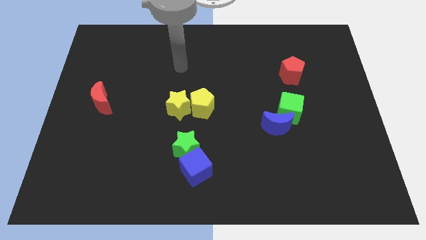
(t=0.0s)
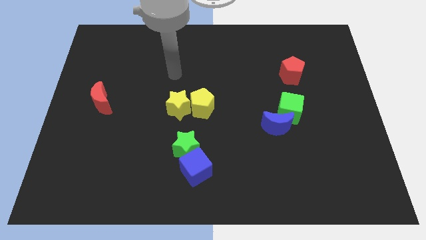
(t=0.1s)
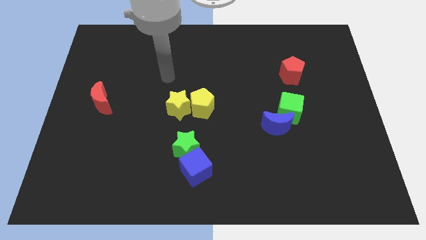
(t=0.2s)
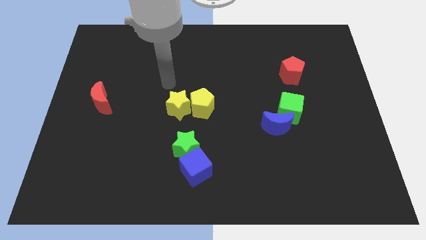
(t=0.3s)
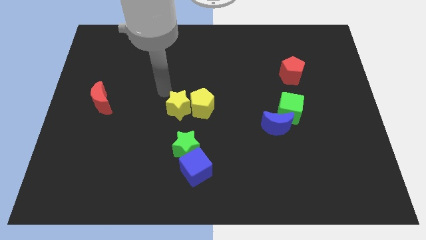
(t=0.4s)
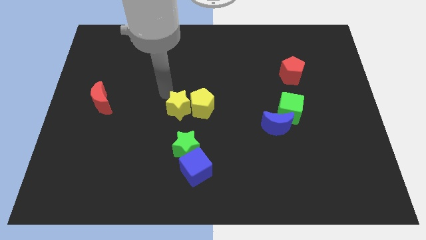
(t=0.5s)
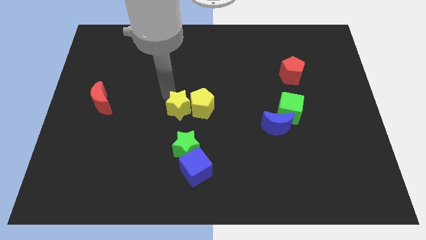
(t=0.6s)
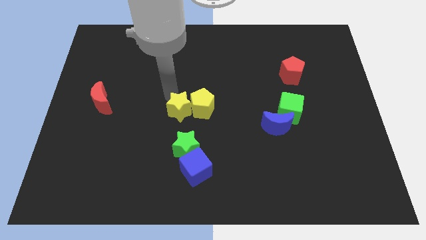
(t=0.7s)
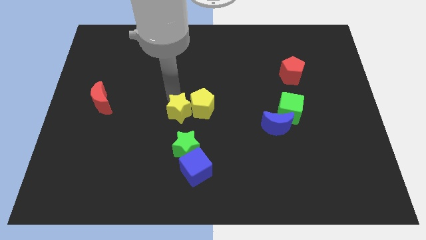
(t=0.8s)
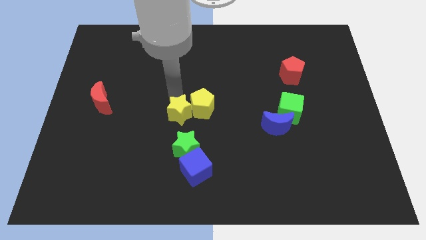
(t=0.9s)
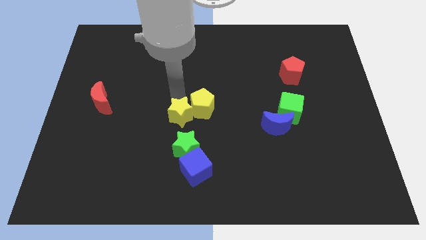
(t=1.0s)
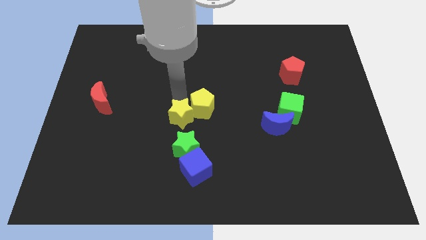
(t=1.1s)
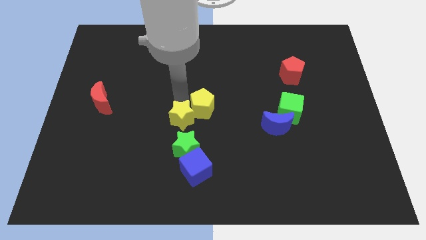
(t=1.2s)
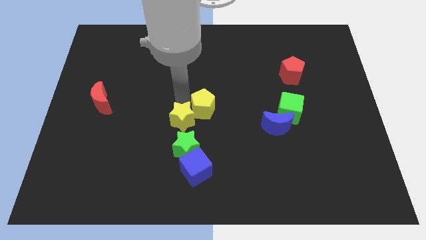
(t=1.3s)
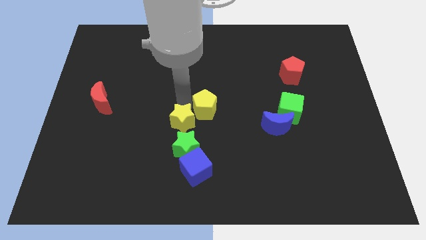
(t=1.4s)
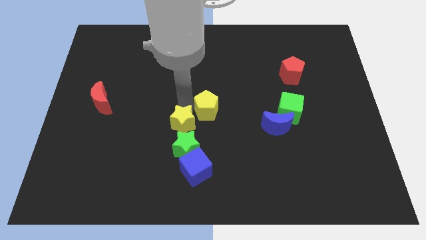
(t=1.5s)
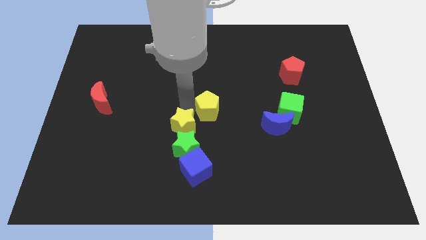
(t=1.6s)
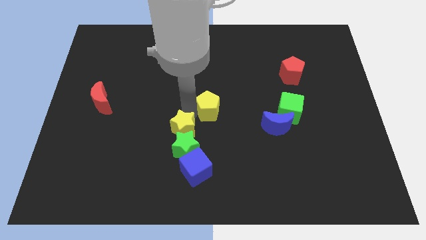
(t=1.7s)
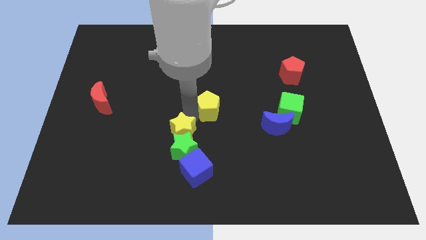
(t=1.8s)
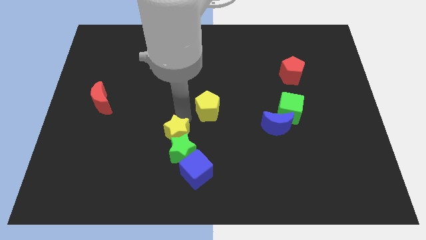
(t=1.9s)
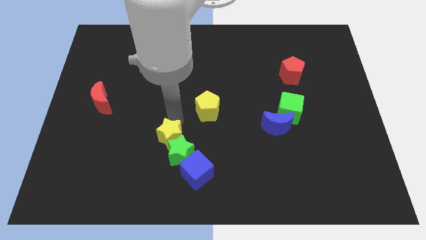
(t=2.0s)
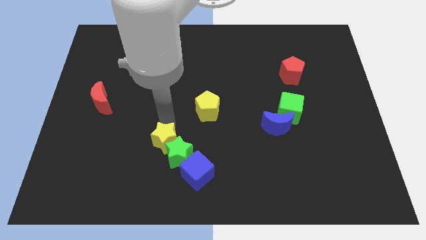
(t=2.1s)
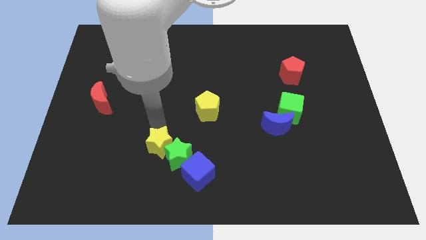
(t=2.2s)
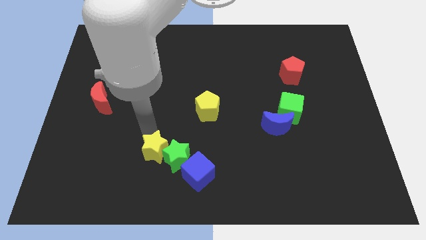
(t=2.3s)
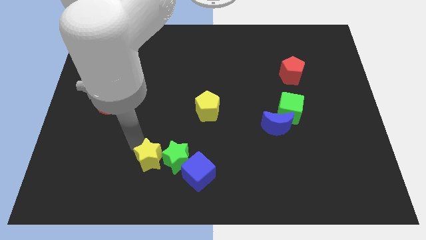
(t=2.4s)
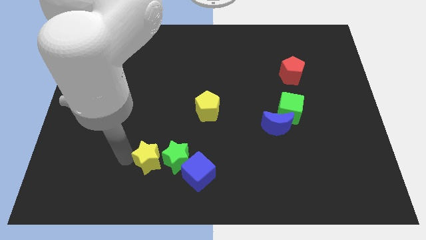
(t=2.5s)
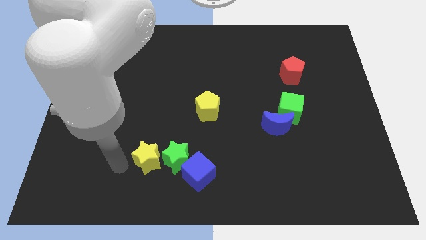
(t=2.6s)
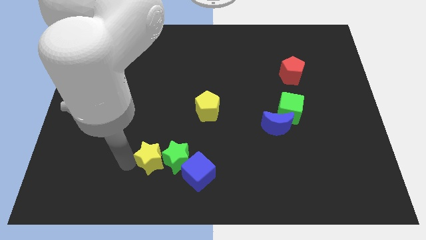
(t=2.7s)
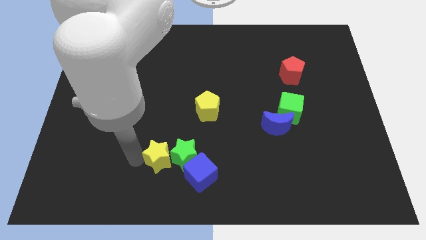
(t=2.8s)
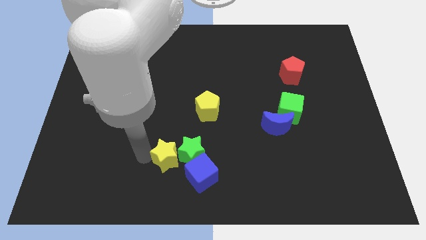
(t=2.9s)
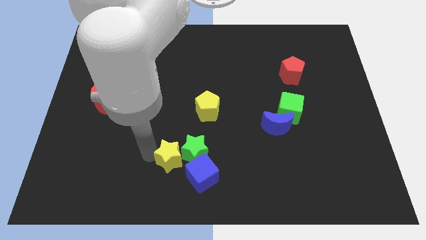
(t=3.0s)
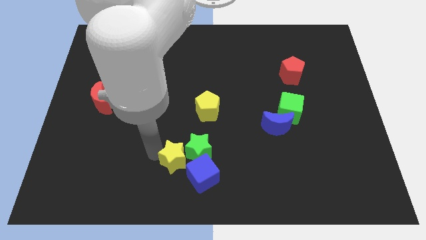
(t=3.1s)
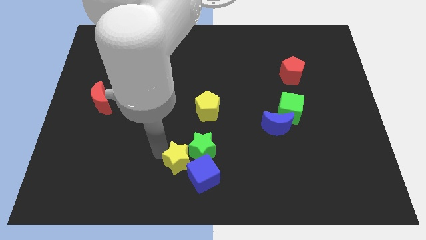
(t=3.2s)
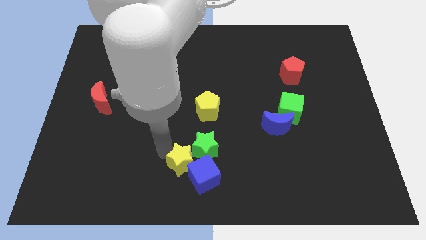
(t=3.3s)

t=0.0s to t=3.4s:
move the yellow star down and right a bit

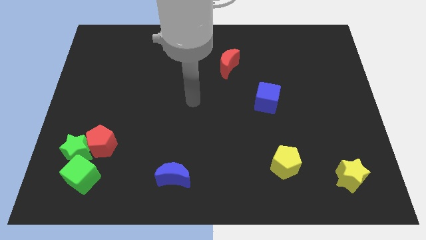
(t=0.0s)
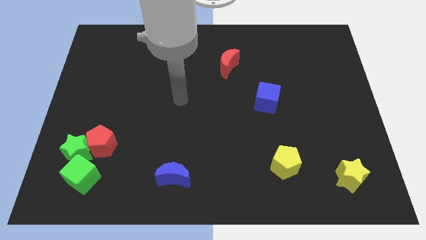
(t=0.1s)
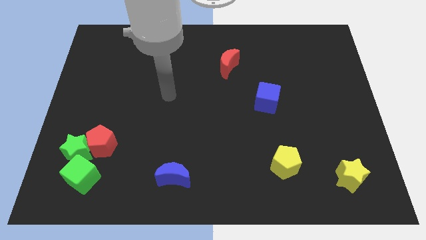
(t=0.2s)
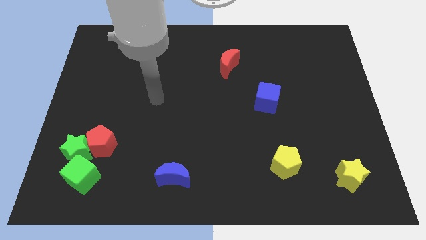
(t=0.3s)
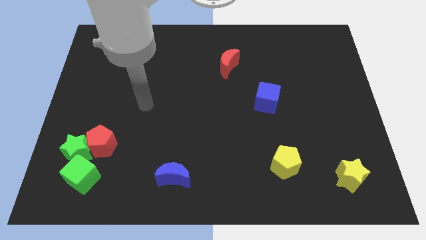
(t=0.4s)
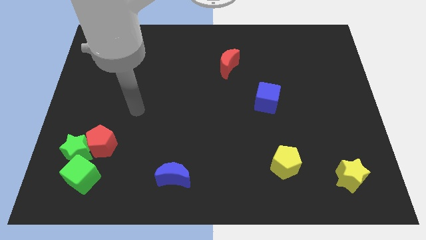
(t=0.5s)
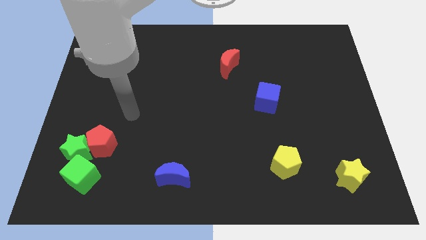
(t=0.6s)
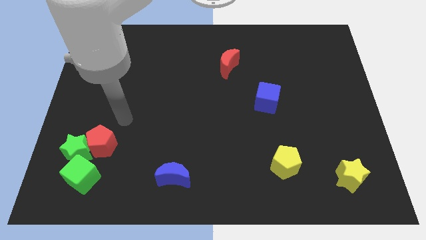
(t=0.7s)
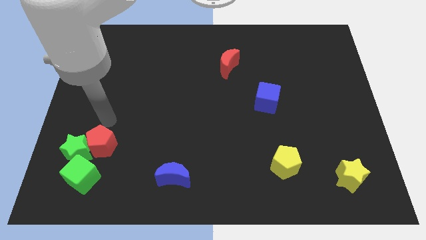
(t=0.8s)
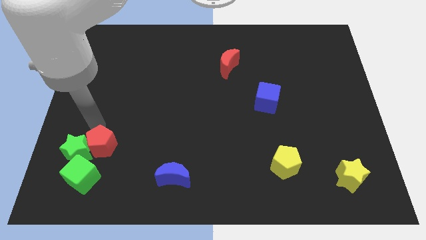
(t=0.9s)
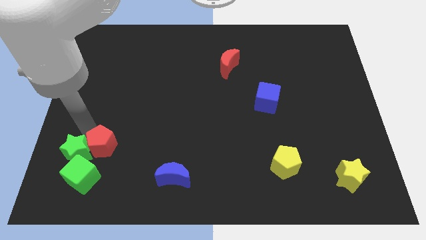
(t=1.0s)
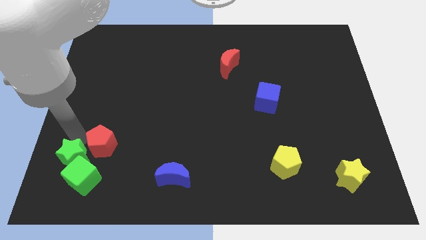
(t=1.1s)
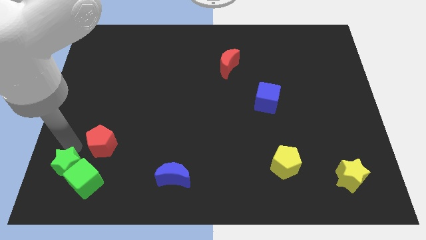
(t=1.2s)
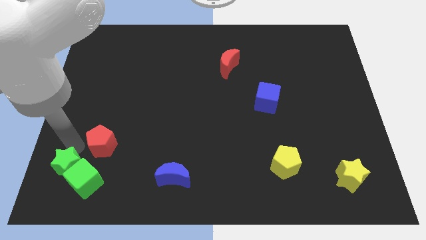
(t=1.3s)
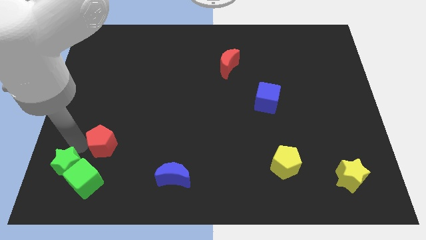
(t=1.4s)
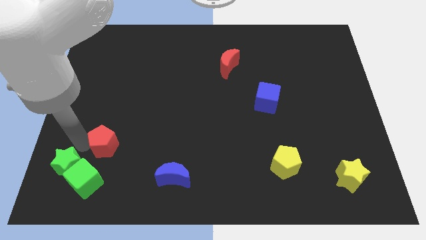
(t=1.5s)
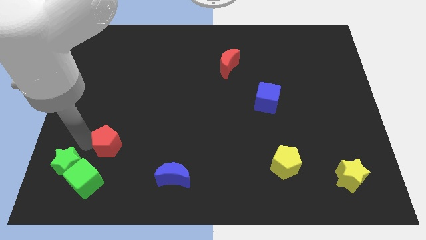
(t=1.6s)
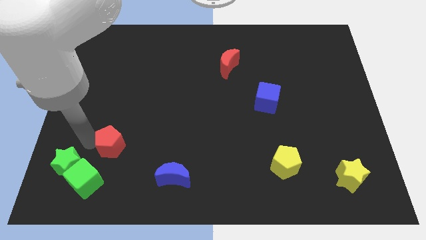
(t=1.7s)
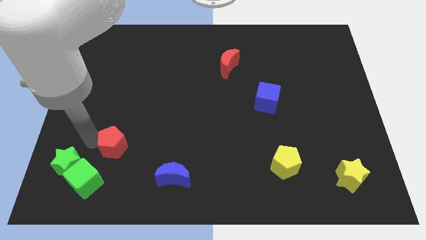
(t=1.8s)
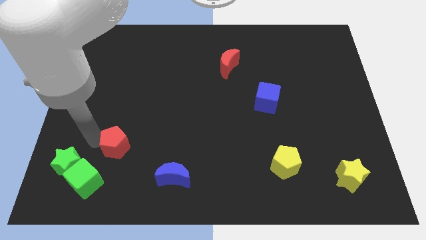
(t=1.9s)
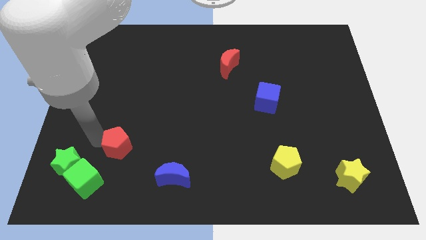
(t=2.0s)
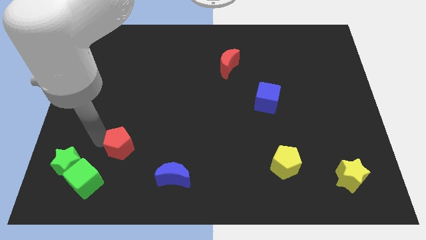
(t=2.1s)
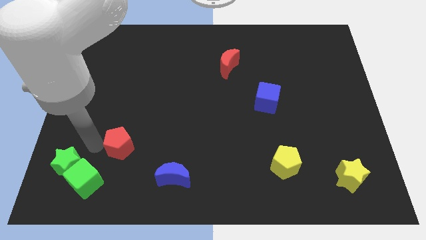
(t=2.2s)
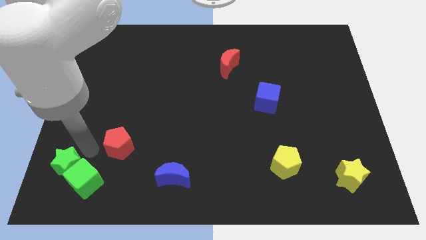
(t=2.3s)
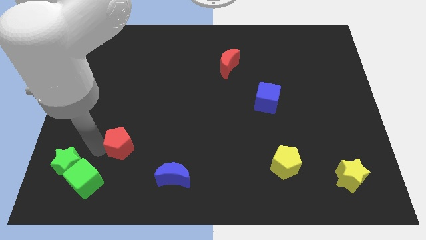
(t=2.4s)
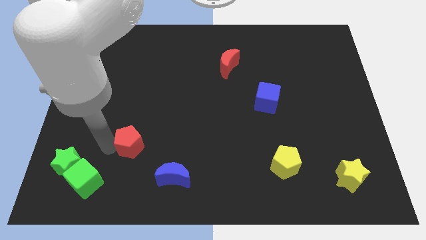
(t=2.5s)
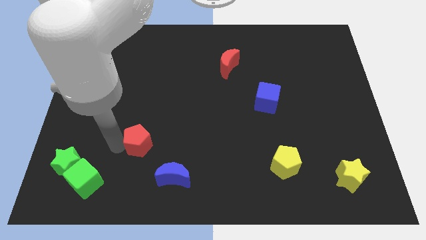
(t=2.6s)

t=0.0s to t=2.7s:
slightly slide the red pentagon to the right

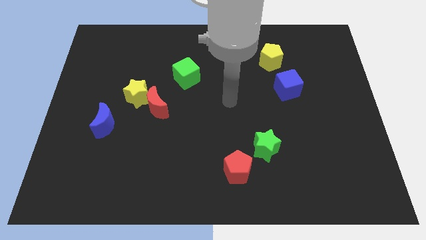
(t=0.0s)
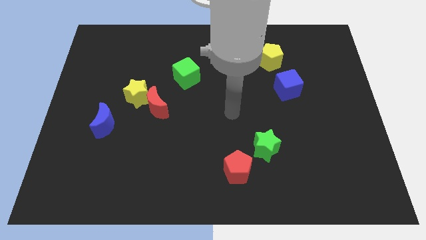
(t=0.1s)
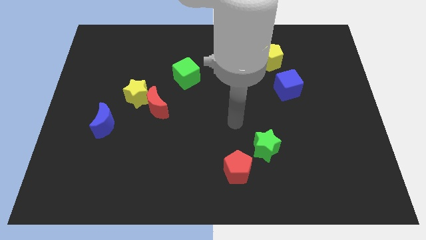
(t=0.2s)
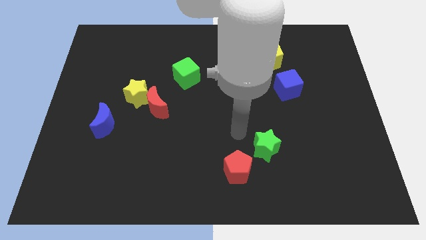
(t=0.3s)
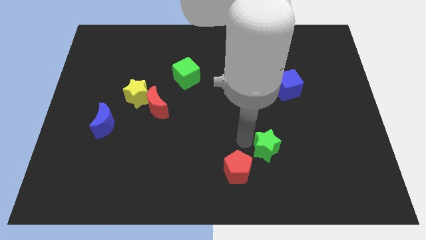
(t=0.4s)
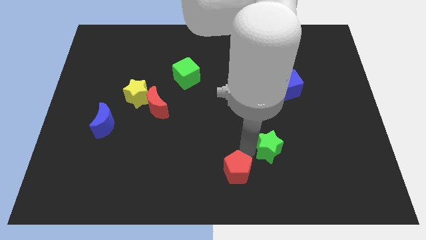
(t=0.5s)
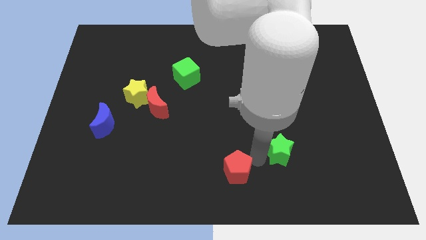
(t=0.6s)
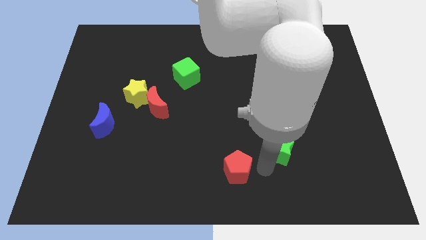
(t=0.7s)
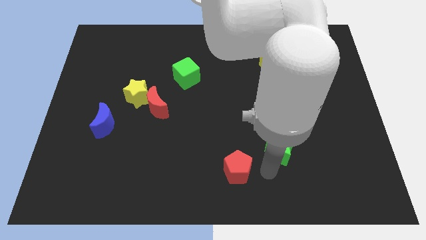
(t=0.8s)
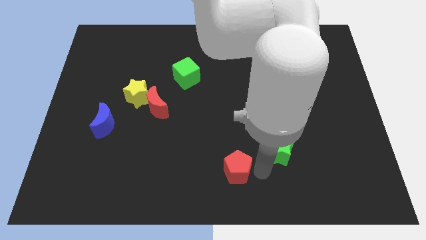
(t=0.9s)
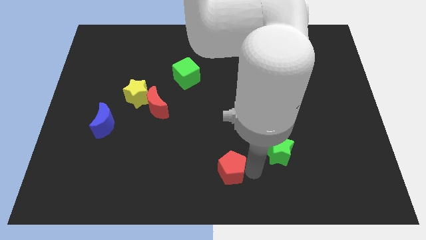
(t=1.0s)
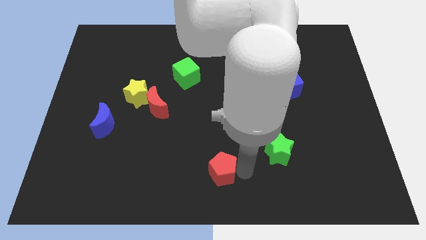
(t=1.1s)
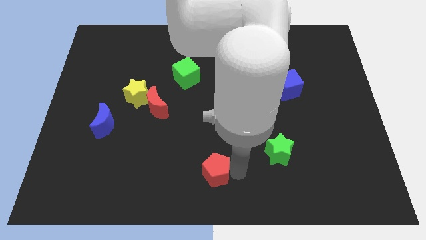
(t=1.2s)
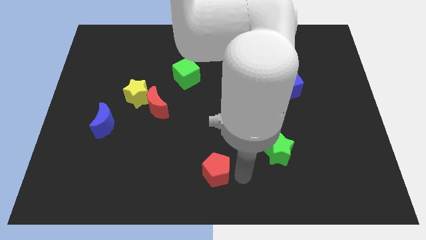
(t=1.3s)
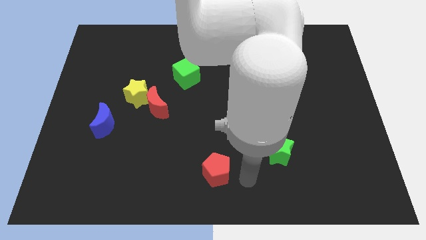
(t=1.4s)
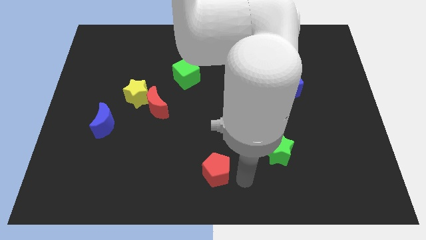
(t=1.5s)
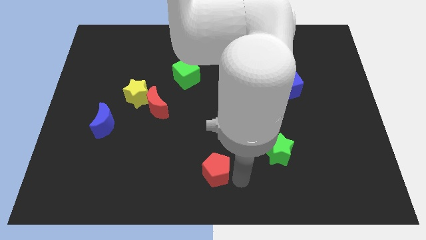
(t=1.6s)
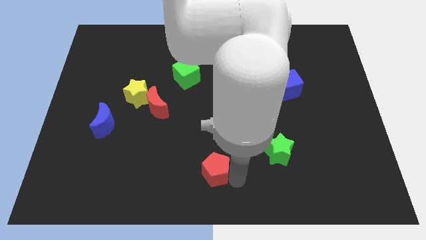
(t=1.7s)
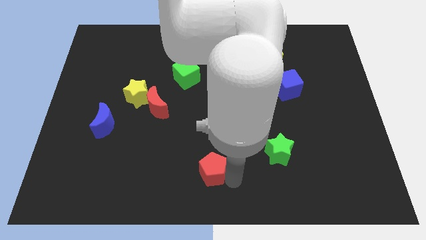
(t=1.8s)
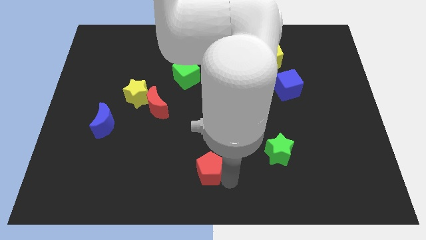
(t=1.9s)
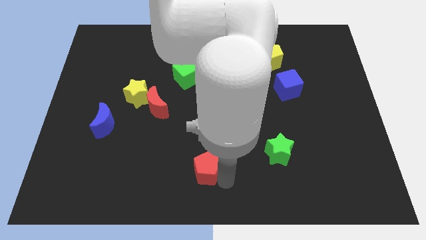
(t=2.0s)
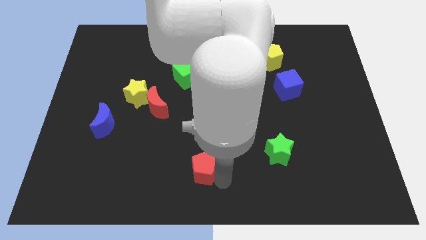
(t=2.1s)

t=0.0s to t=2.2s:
slightly push the red pentagon left
